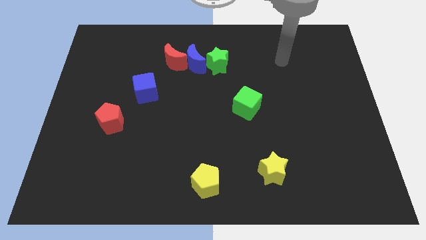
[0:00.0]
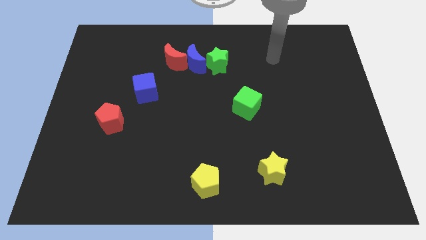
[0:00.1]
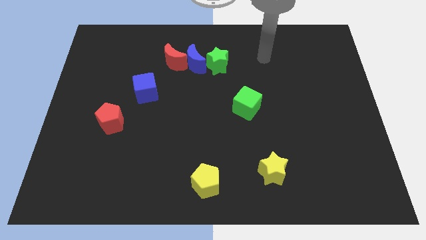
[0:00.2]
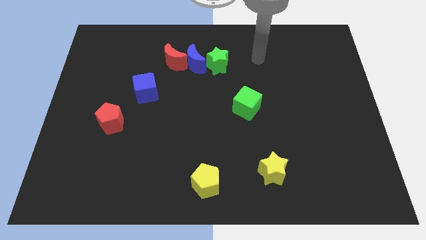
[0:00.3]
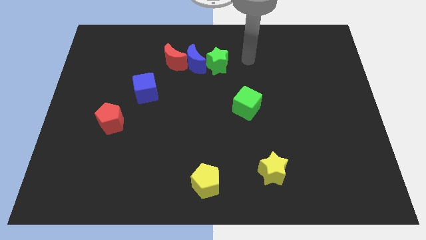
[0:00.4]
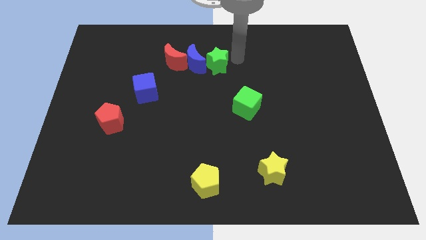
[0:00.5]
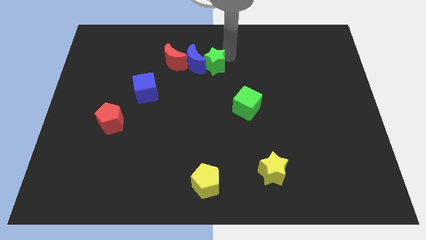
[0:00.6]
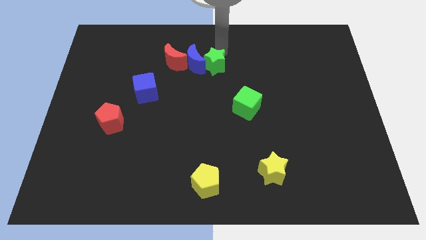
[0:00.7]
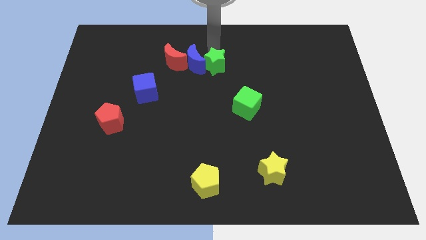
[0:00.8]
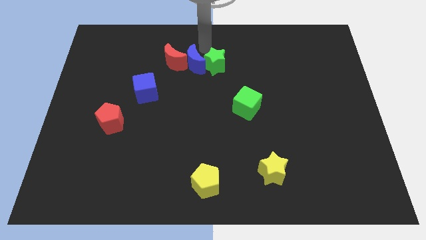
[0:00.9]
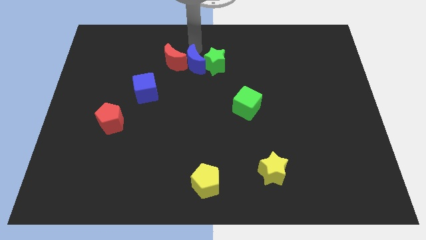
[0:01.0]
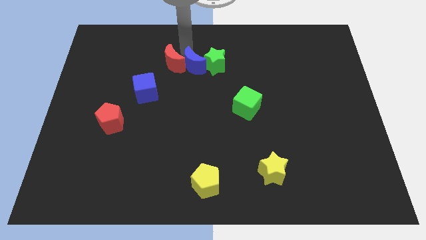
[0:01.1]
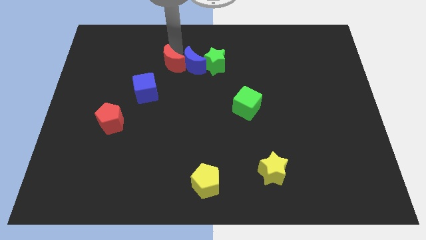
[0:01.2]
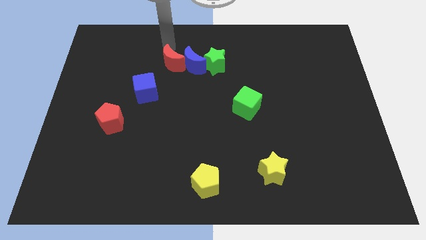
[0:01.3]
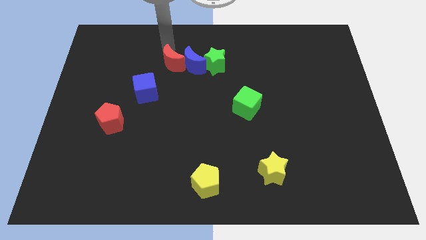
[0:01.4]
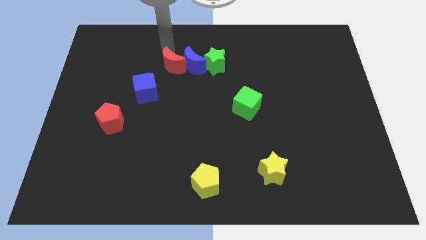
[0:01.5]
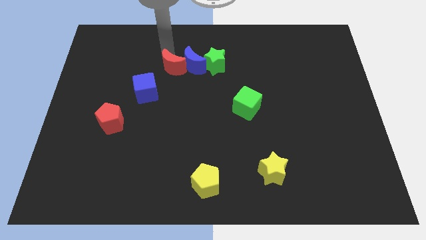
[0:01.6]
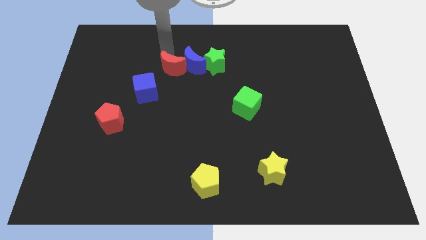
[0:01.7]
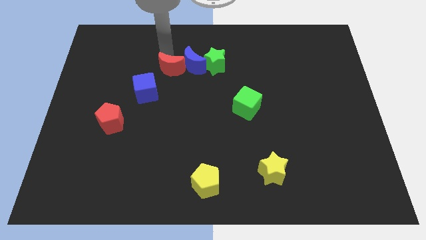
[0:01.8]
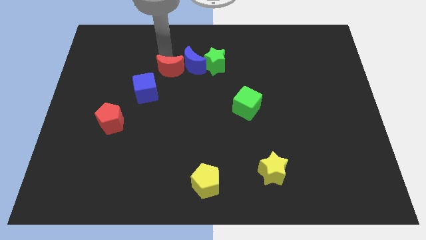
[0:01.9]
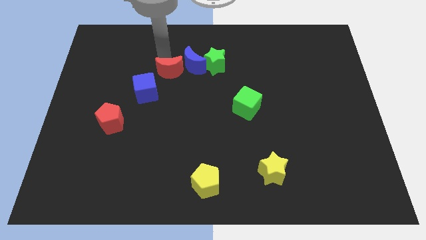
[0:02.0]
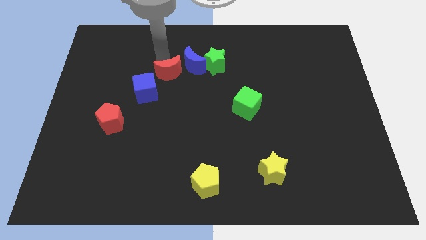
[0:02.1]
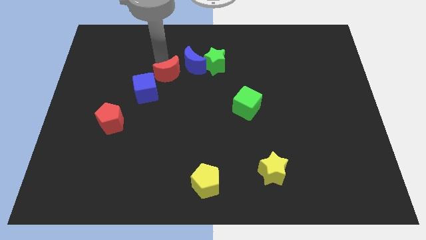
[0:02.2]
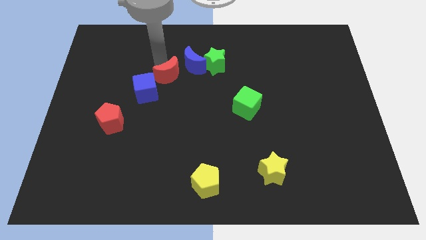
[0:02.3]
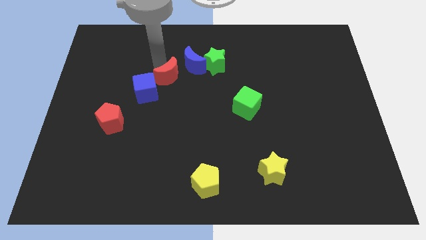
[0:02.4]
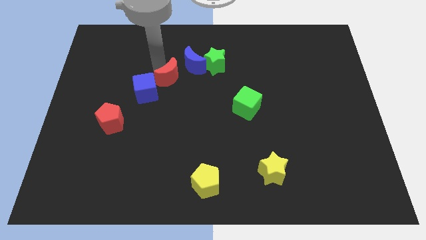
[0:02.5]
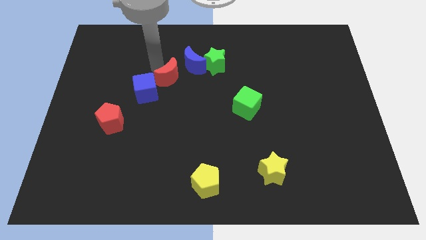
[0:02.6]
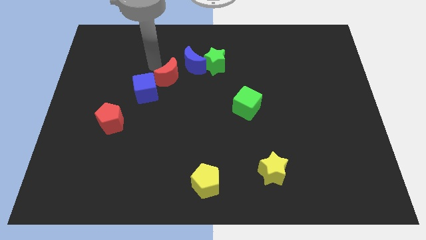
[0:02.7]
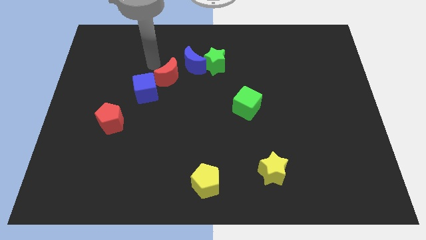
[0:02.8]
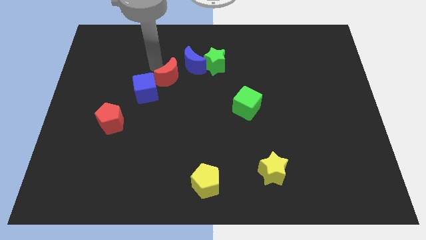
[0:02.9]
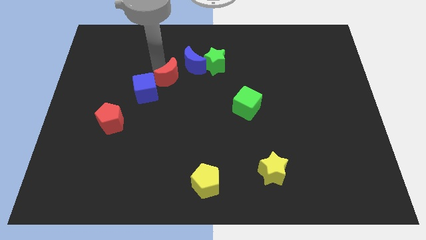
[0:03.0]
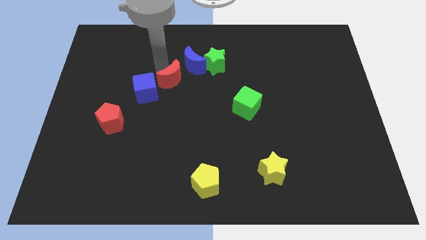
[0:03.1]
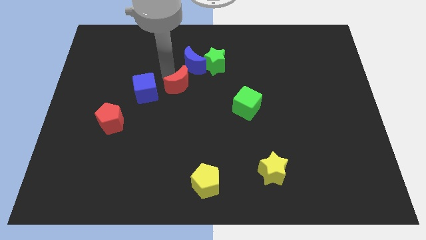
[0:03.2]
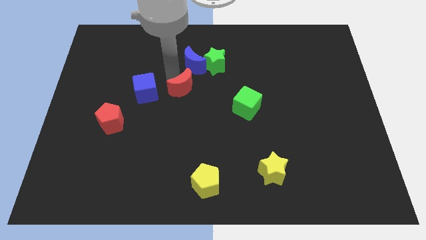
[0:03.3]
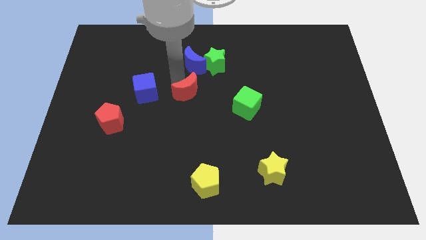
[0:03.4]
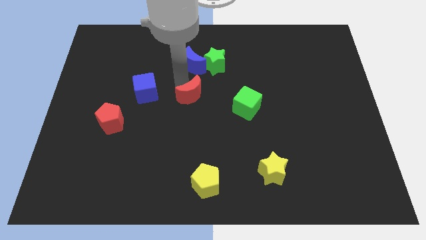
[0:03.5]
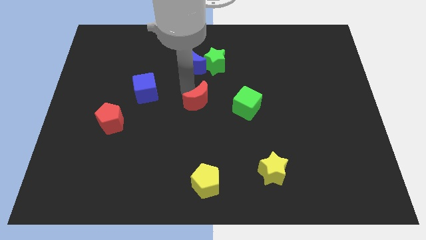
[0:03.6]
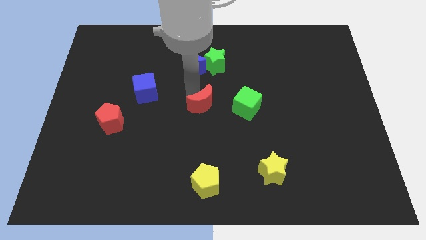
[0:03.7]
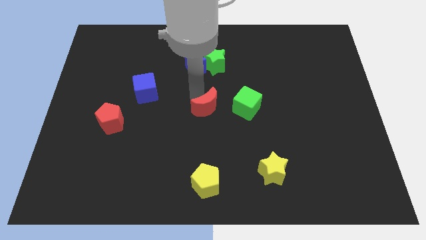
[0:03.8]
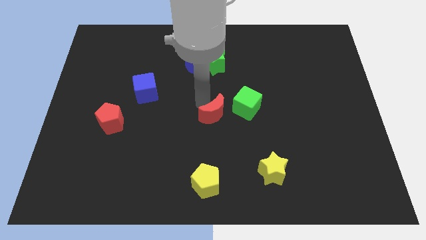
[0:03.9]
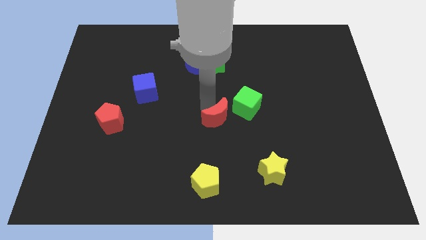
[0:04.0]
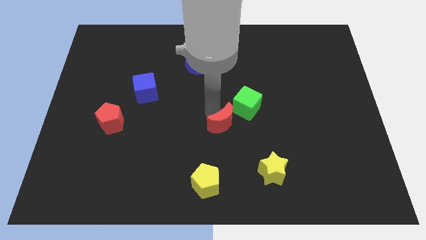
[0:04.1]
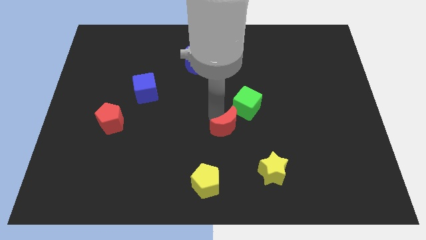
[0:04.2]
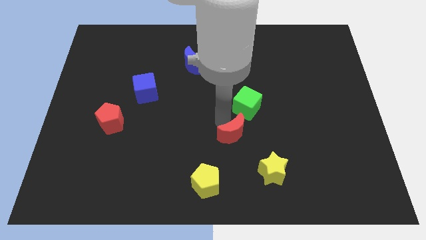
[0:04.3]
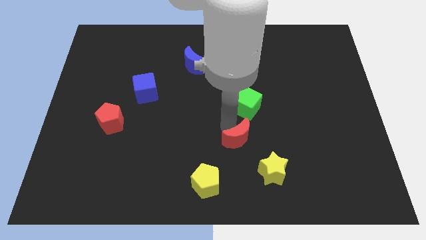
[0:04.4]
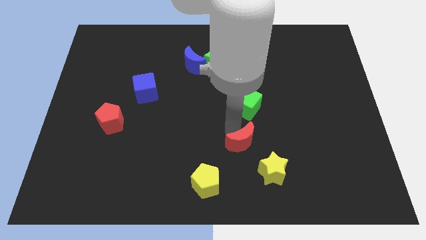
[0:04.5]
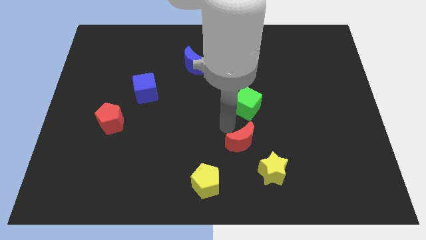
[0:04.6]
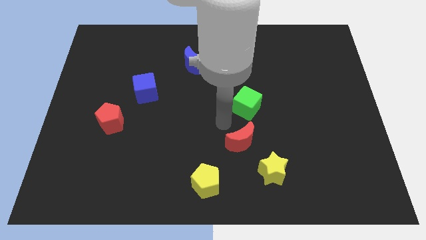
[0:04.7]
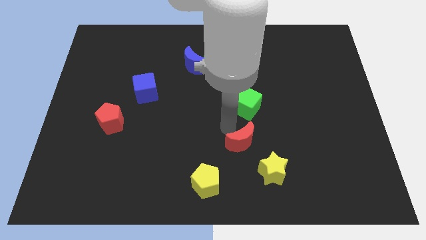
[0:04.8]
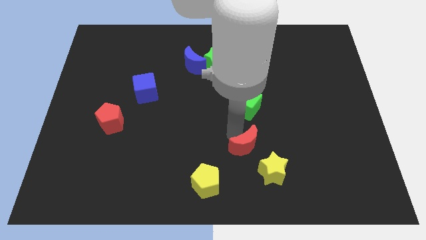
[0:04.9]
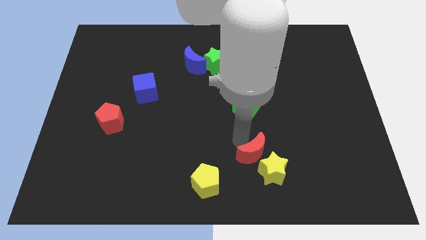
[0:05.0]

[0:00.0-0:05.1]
push the red moon to the yellow star

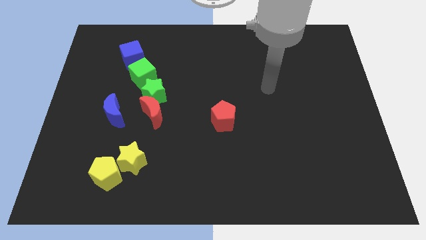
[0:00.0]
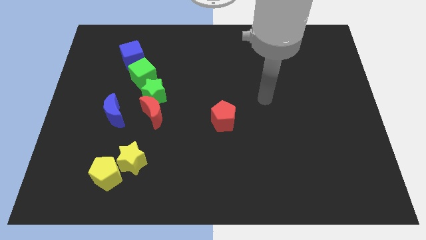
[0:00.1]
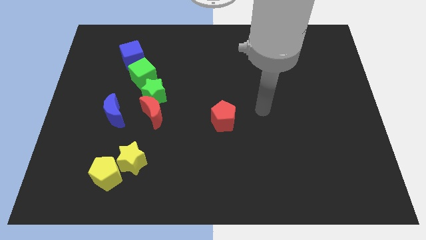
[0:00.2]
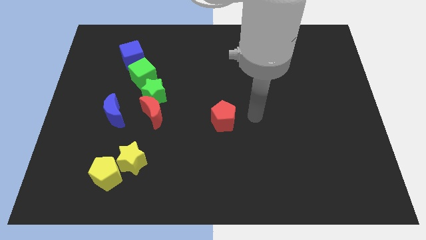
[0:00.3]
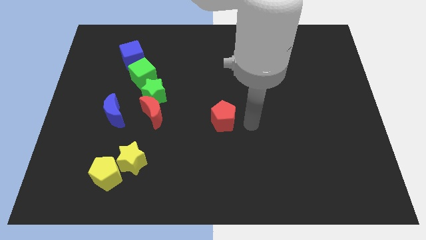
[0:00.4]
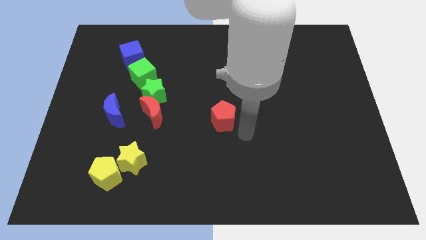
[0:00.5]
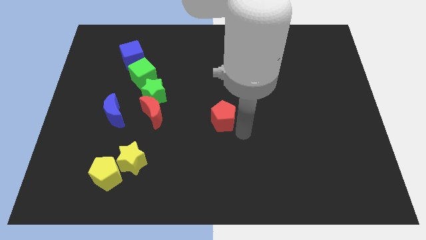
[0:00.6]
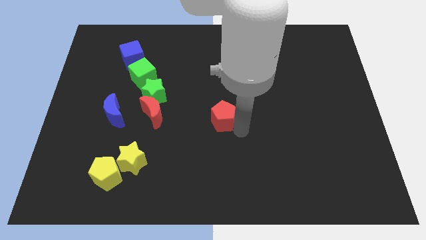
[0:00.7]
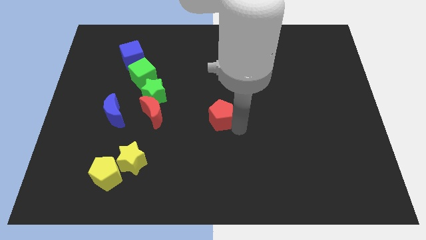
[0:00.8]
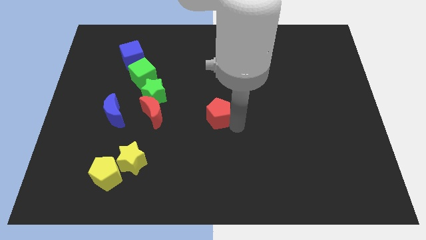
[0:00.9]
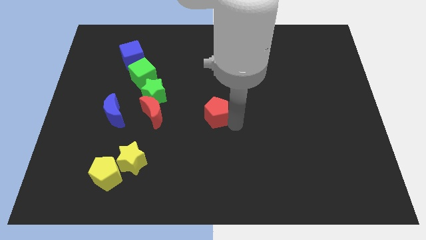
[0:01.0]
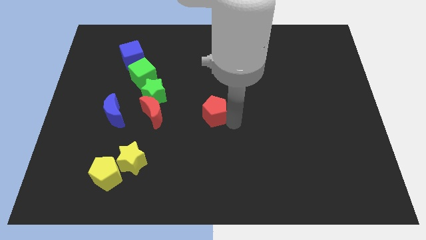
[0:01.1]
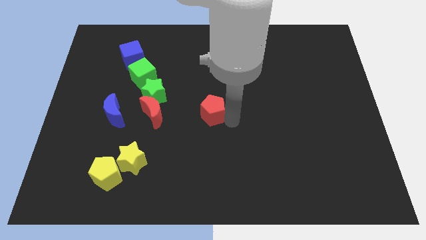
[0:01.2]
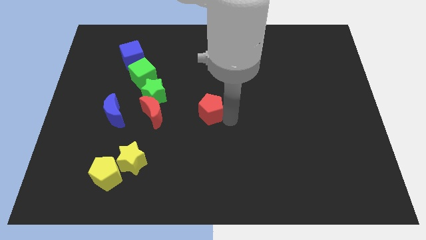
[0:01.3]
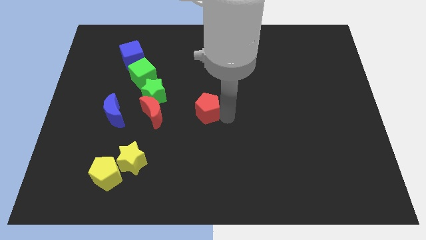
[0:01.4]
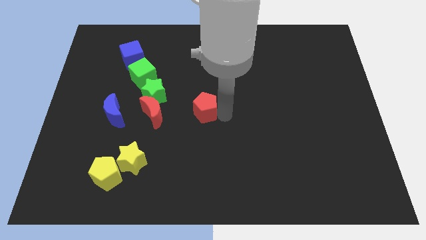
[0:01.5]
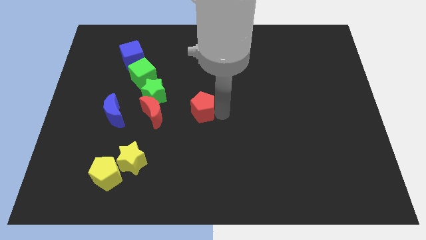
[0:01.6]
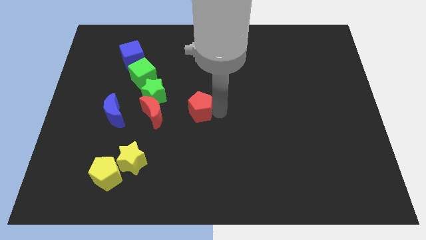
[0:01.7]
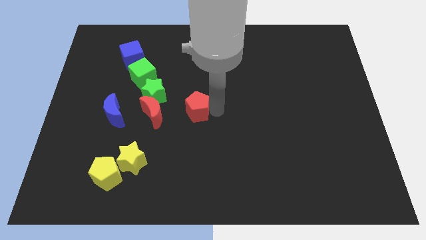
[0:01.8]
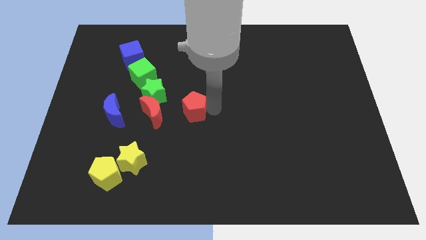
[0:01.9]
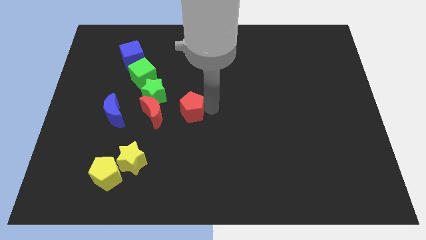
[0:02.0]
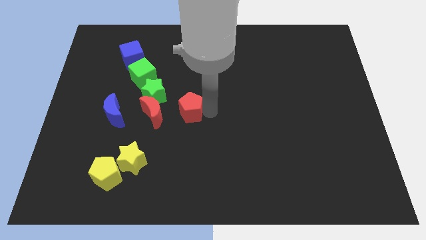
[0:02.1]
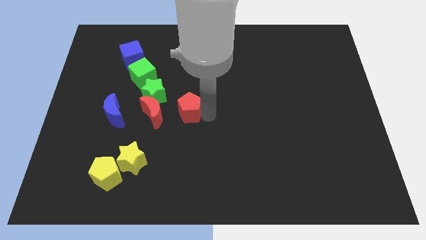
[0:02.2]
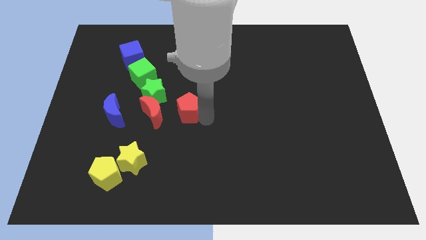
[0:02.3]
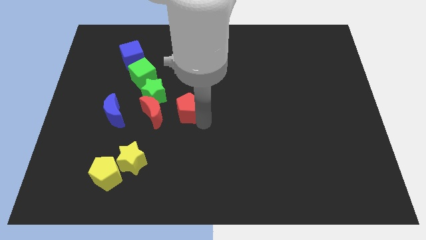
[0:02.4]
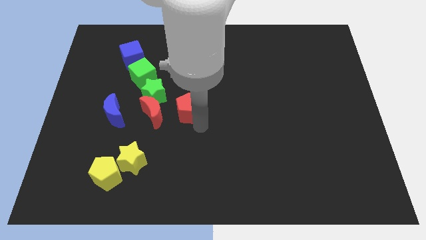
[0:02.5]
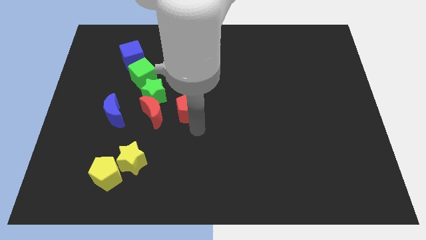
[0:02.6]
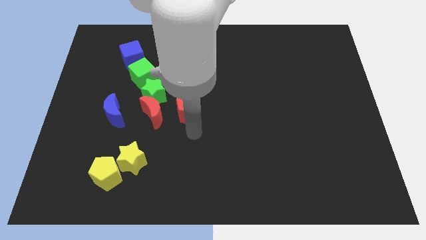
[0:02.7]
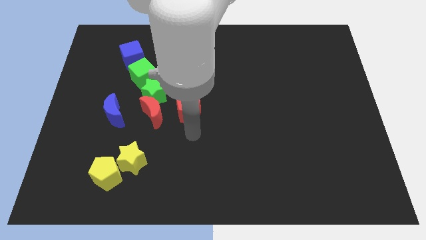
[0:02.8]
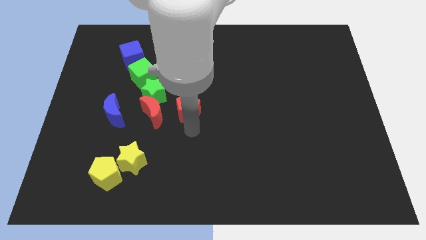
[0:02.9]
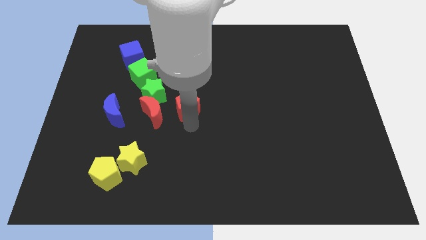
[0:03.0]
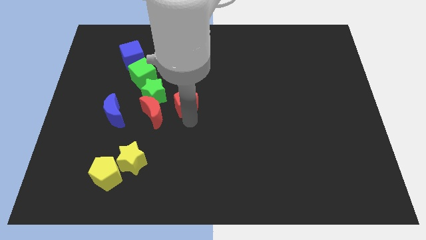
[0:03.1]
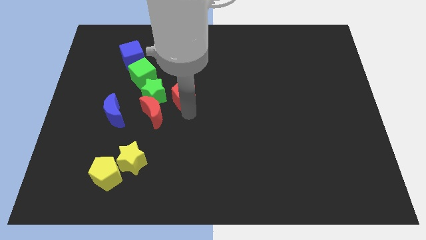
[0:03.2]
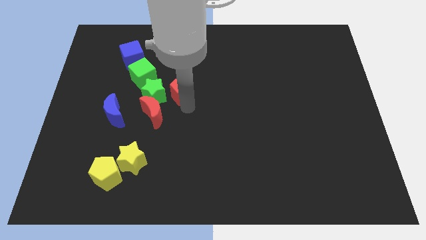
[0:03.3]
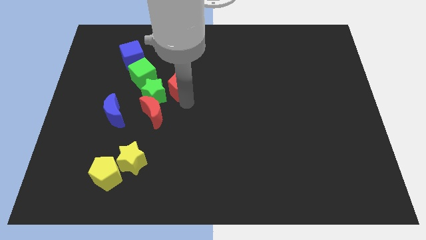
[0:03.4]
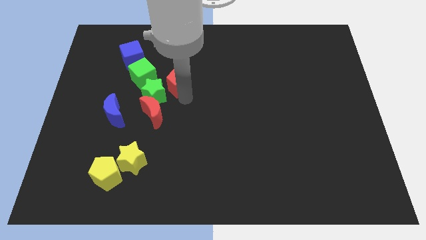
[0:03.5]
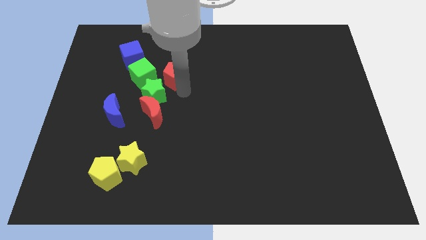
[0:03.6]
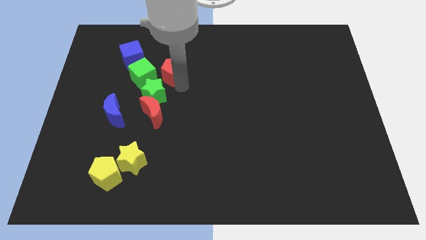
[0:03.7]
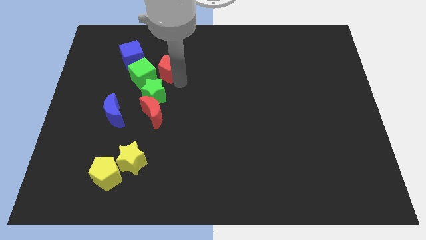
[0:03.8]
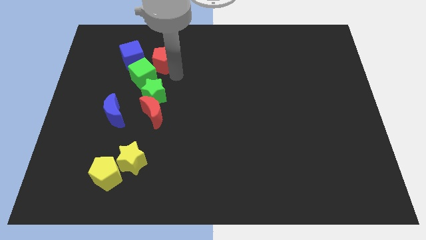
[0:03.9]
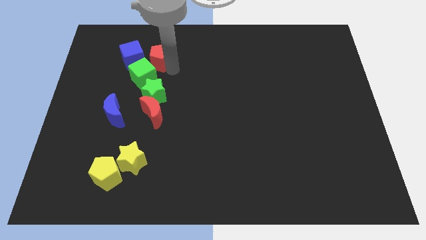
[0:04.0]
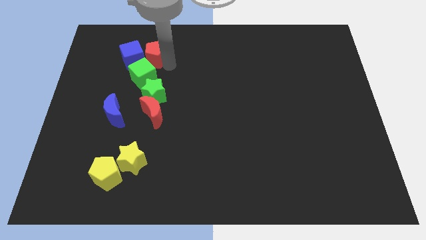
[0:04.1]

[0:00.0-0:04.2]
push the red pentagon towards the blue cube
